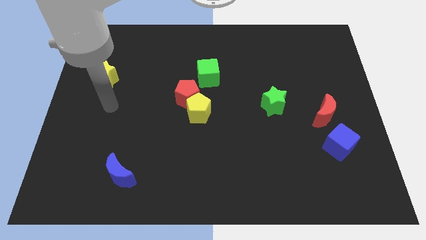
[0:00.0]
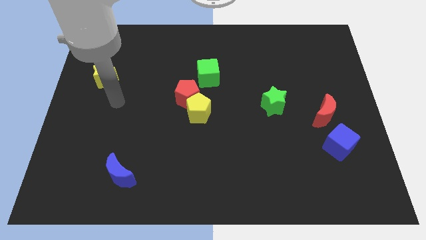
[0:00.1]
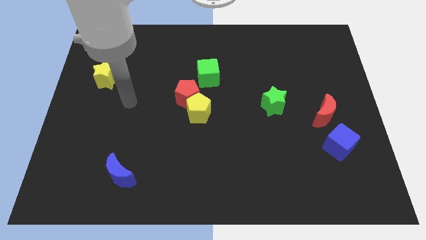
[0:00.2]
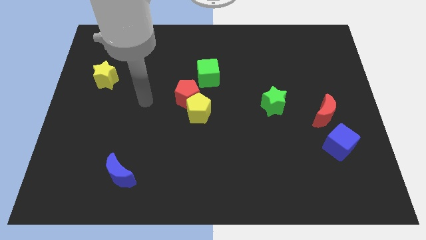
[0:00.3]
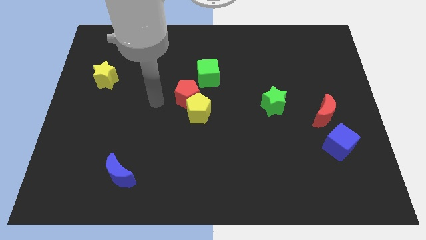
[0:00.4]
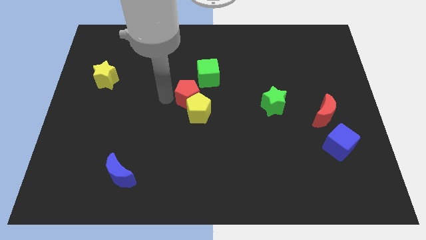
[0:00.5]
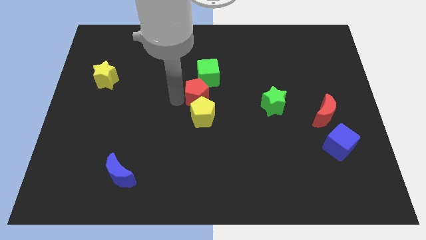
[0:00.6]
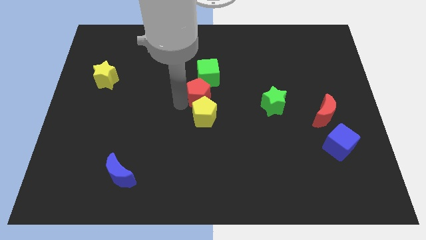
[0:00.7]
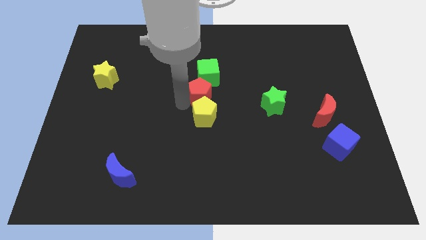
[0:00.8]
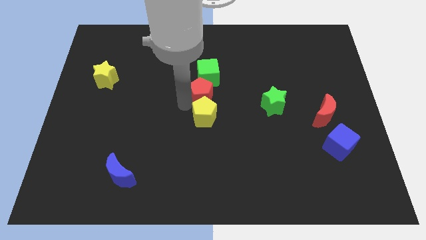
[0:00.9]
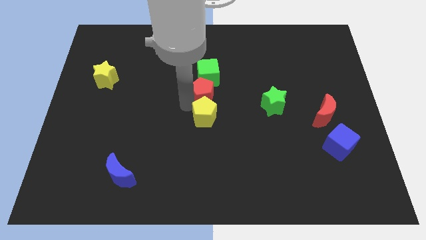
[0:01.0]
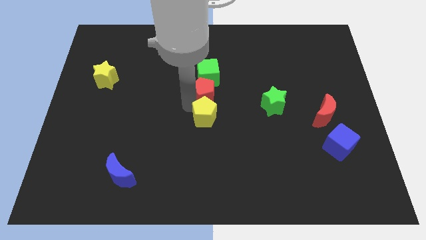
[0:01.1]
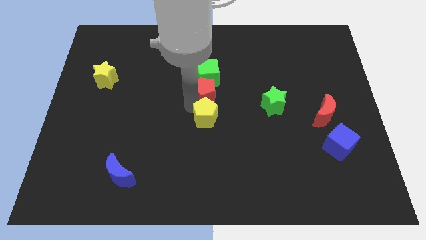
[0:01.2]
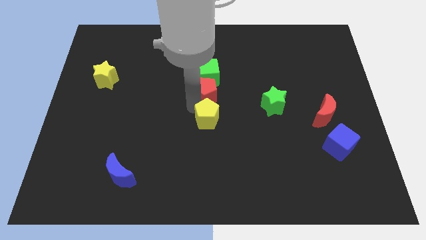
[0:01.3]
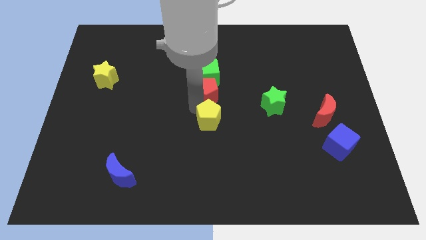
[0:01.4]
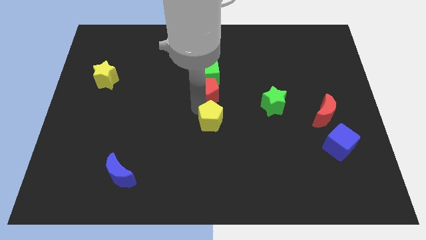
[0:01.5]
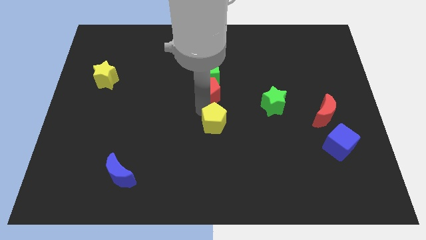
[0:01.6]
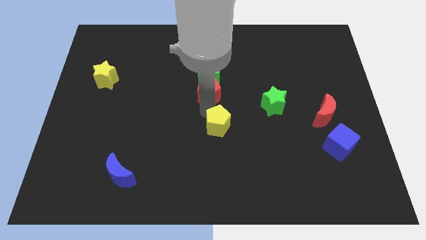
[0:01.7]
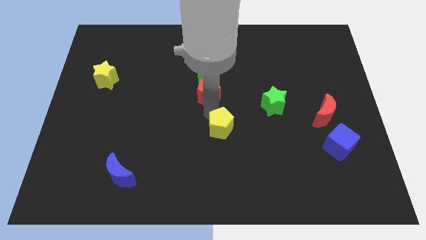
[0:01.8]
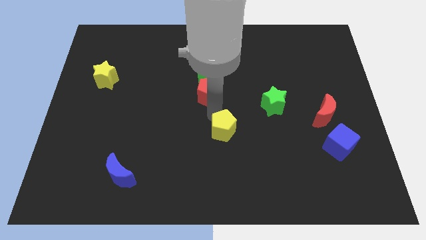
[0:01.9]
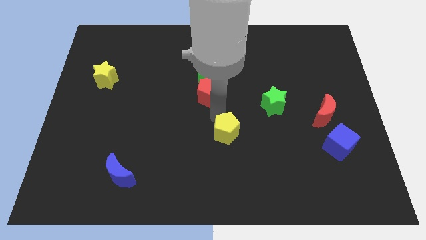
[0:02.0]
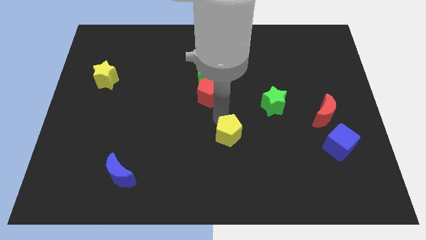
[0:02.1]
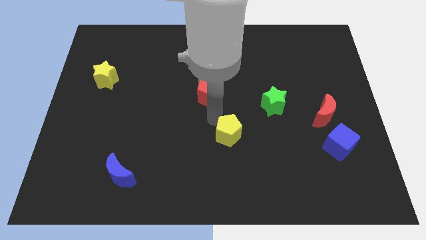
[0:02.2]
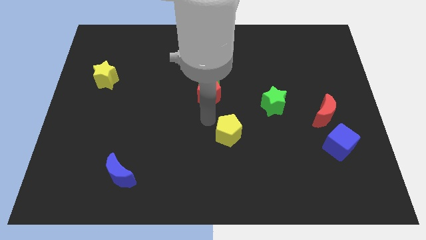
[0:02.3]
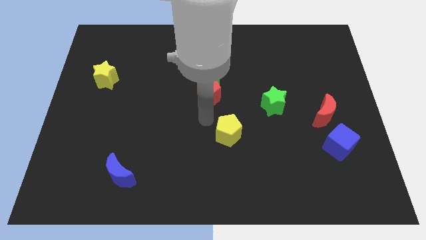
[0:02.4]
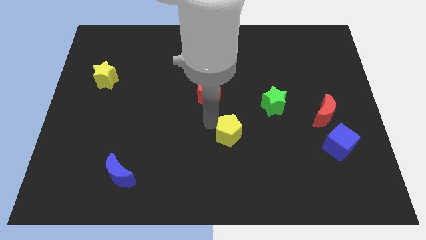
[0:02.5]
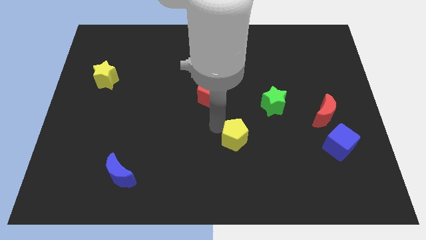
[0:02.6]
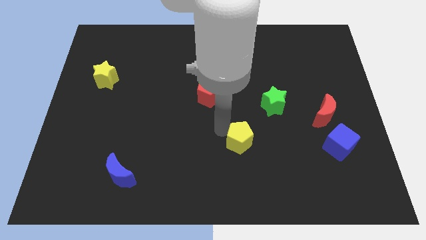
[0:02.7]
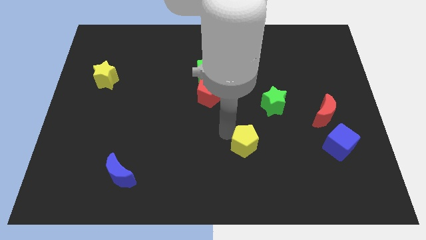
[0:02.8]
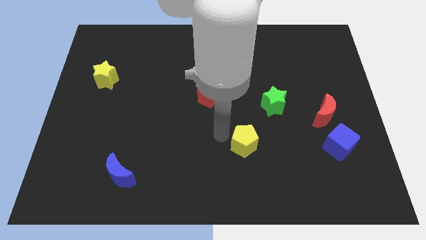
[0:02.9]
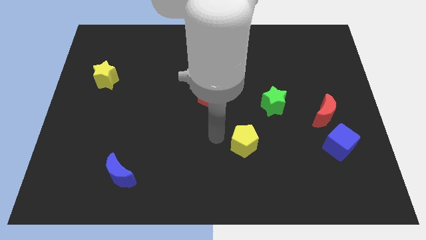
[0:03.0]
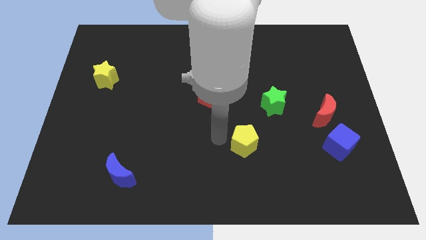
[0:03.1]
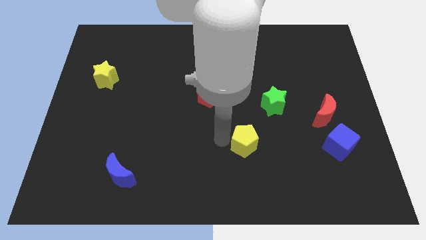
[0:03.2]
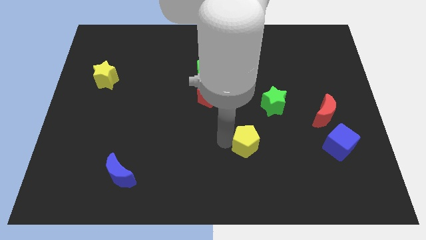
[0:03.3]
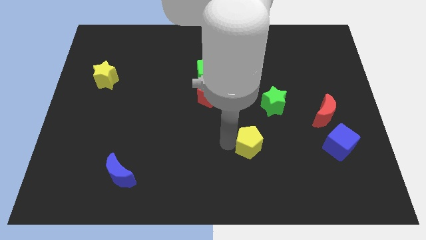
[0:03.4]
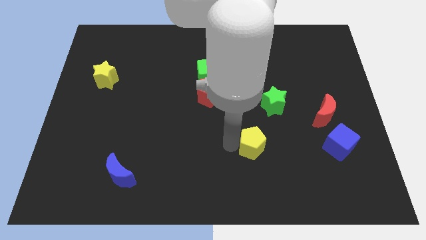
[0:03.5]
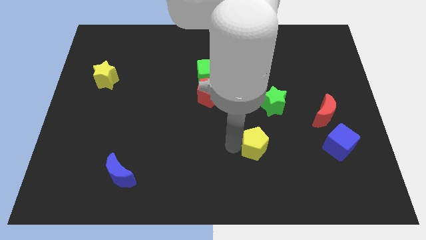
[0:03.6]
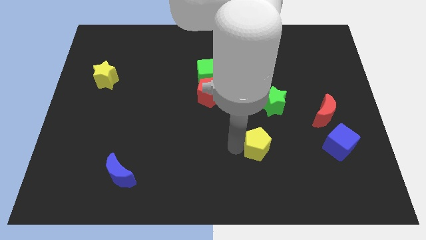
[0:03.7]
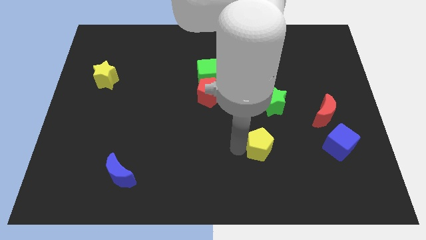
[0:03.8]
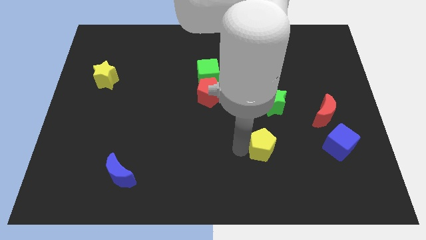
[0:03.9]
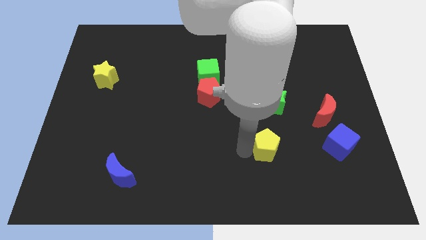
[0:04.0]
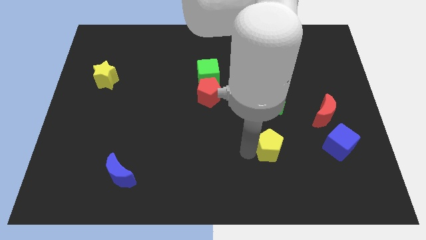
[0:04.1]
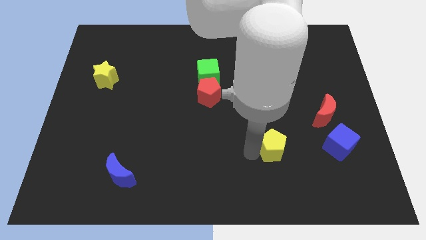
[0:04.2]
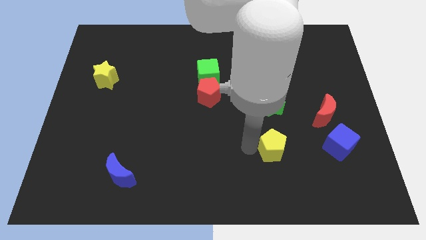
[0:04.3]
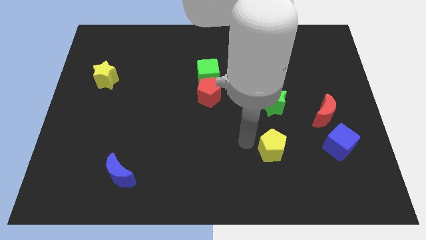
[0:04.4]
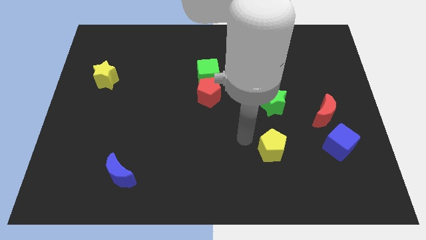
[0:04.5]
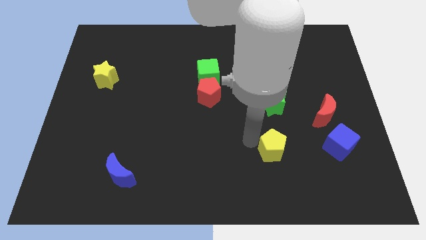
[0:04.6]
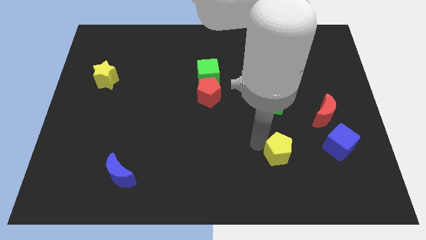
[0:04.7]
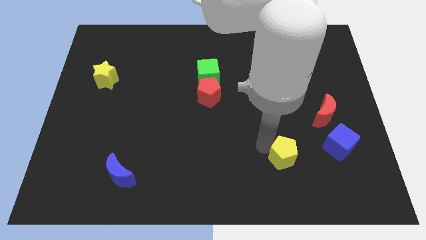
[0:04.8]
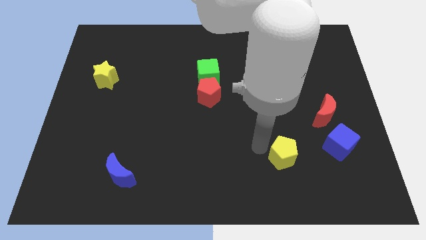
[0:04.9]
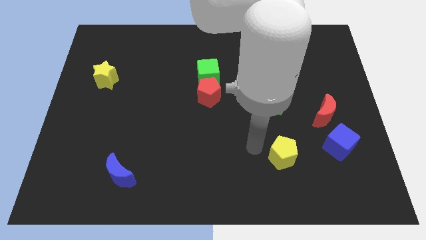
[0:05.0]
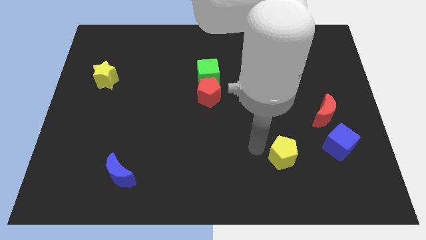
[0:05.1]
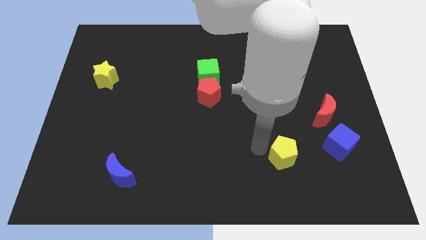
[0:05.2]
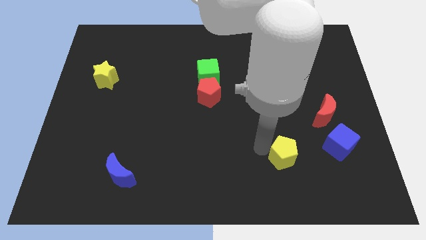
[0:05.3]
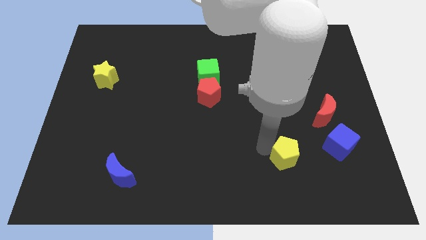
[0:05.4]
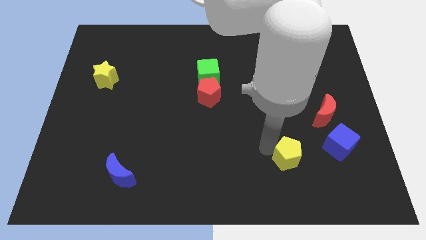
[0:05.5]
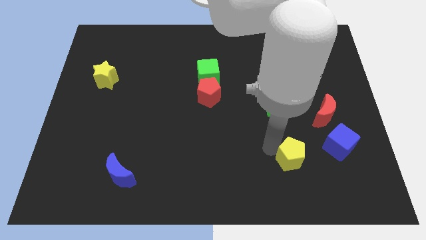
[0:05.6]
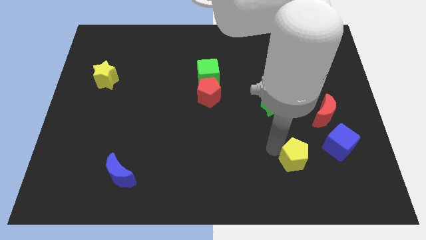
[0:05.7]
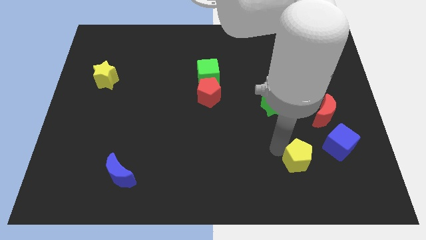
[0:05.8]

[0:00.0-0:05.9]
move the yellow pentagon to the bottom left side of the blue cube

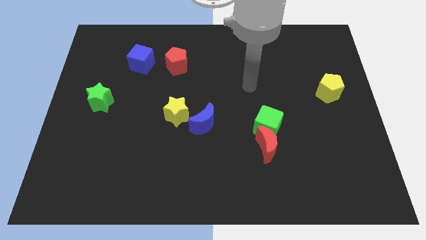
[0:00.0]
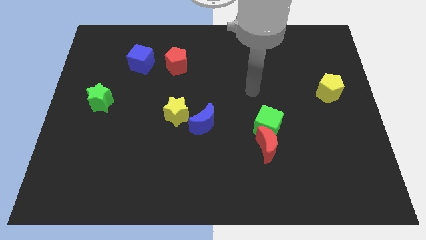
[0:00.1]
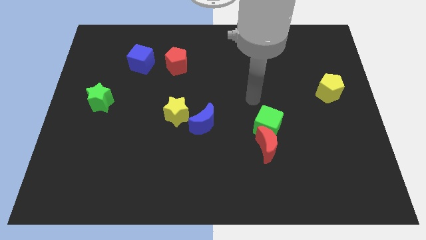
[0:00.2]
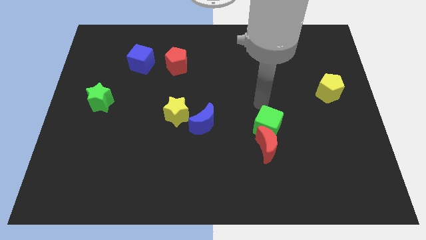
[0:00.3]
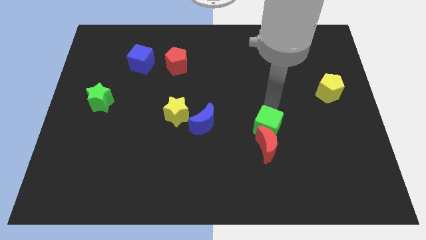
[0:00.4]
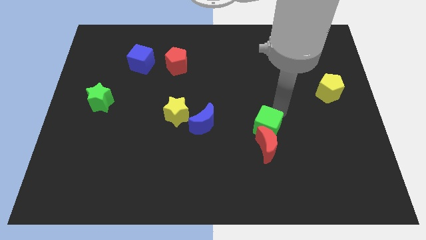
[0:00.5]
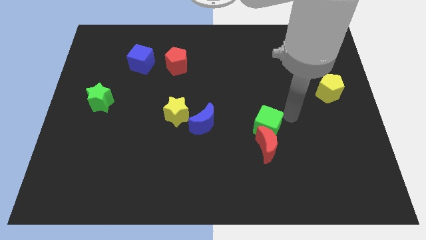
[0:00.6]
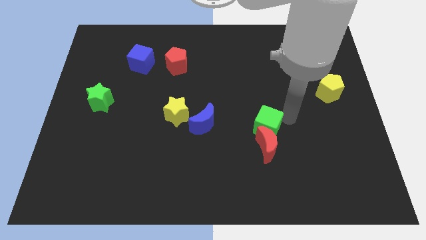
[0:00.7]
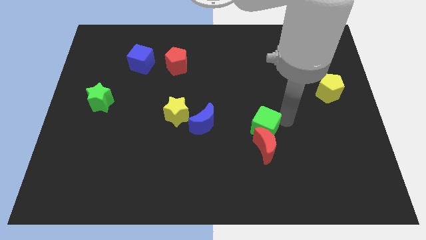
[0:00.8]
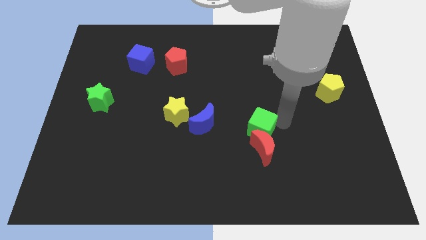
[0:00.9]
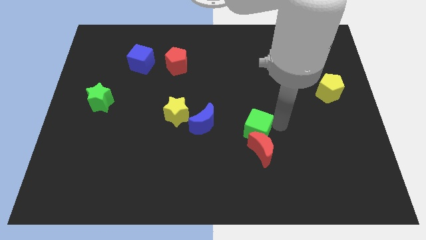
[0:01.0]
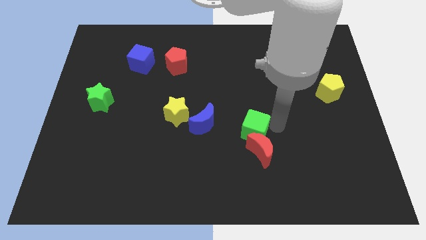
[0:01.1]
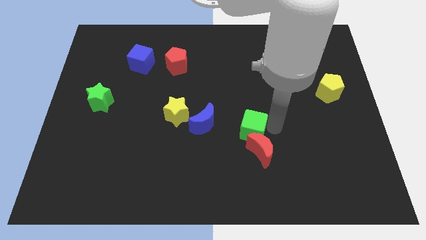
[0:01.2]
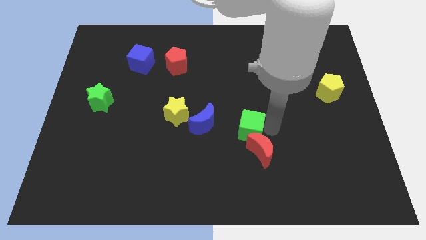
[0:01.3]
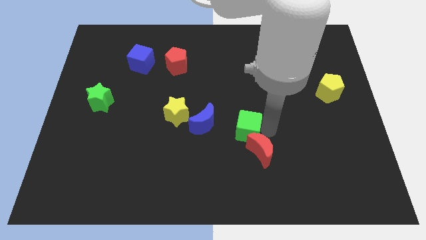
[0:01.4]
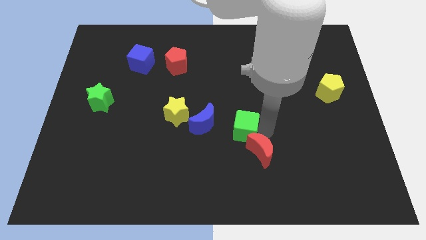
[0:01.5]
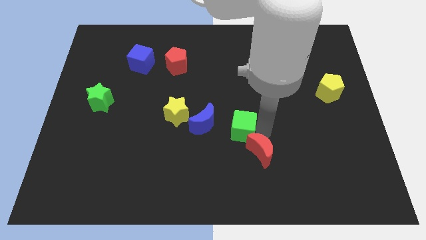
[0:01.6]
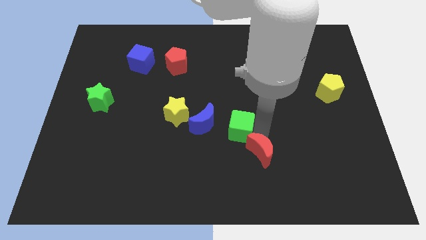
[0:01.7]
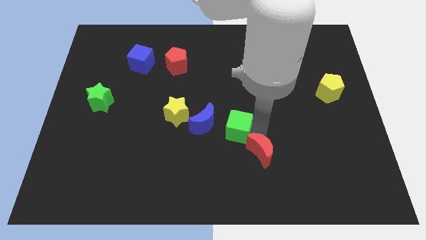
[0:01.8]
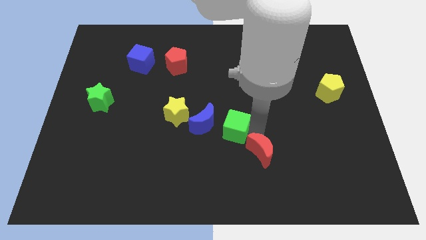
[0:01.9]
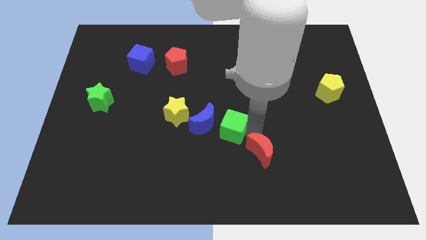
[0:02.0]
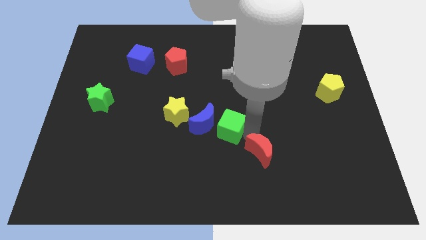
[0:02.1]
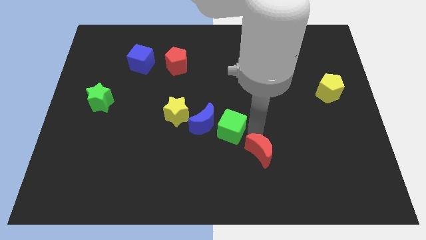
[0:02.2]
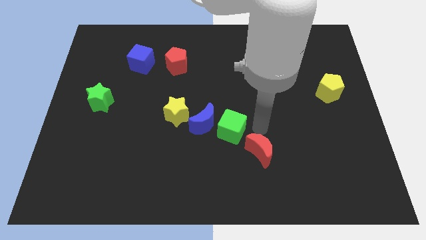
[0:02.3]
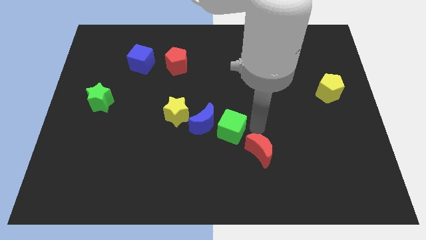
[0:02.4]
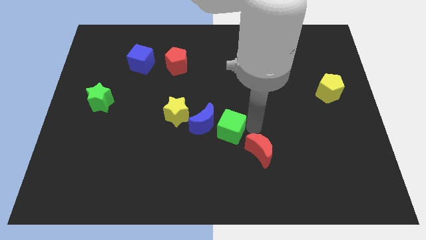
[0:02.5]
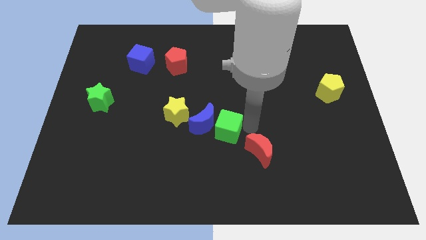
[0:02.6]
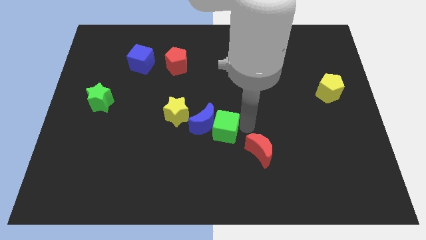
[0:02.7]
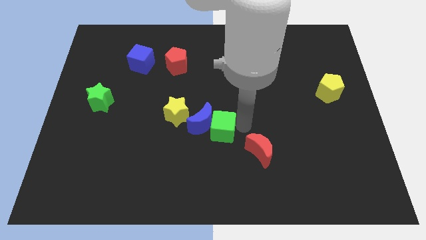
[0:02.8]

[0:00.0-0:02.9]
put the green cube to the bottom right of the yellow star
